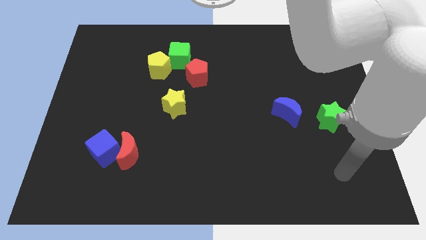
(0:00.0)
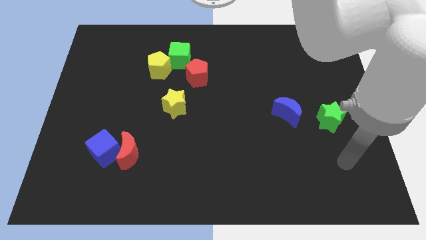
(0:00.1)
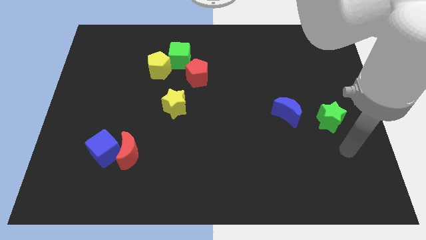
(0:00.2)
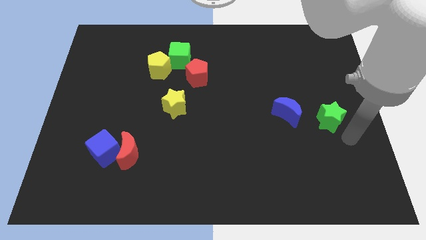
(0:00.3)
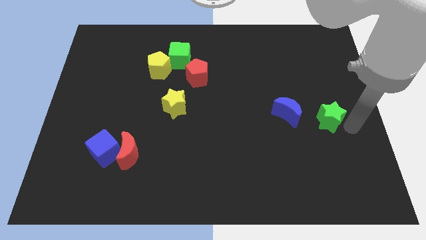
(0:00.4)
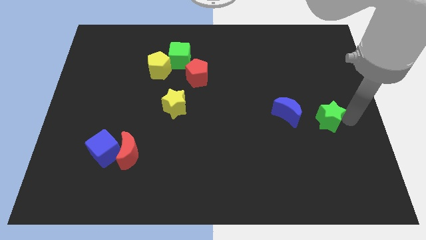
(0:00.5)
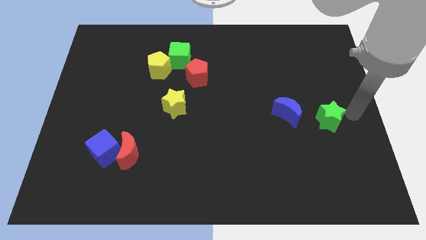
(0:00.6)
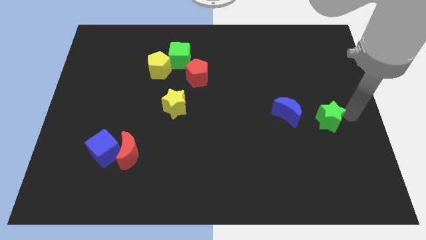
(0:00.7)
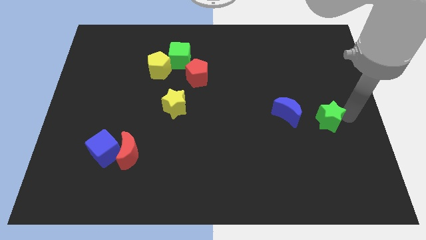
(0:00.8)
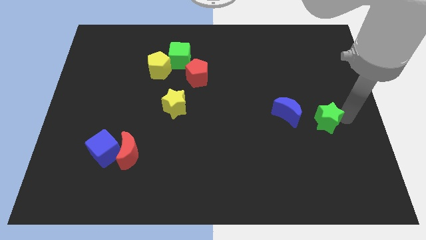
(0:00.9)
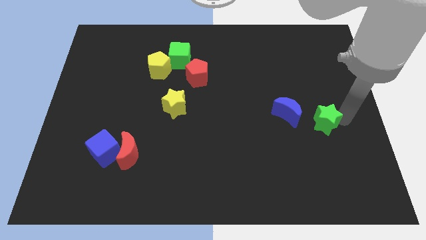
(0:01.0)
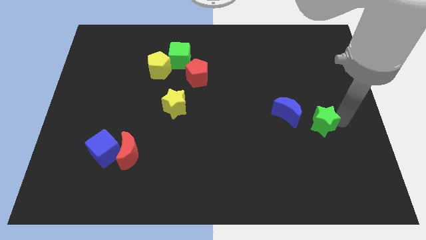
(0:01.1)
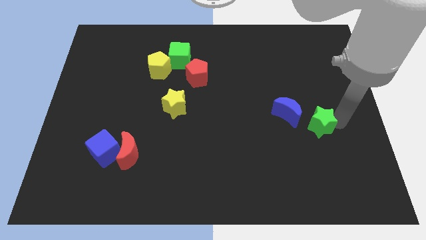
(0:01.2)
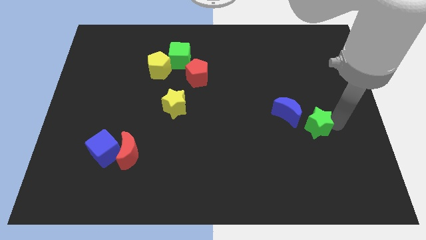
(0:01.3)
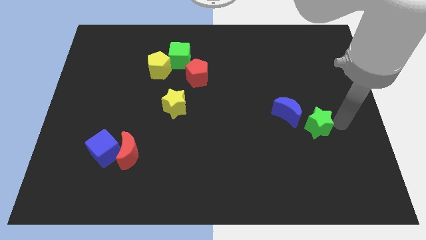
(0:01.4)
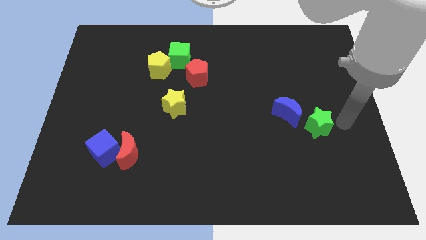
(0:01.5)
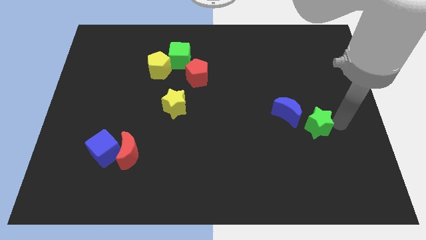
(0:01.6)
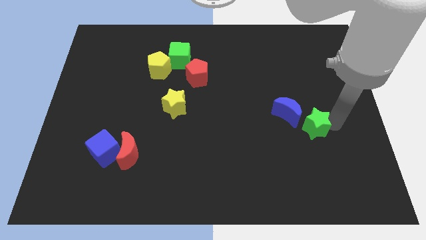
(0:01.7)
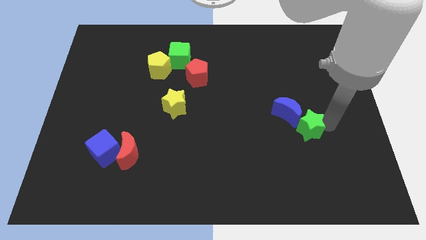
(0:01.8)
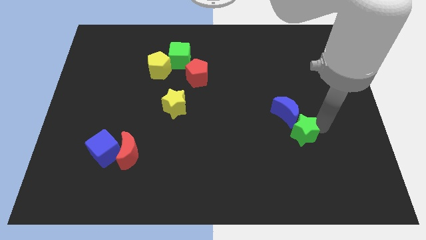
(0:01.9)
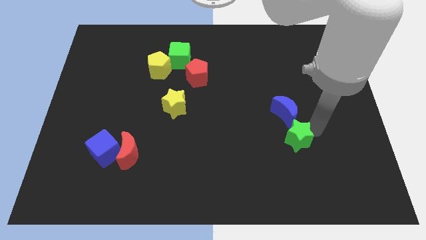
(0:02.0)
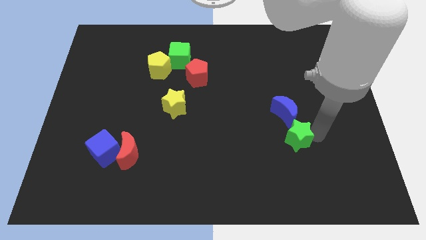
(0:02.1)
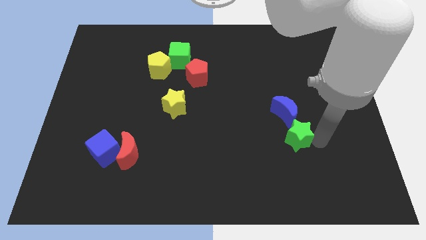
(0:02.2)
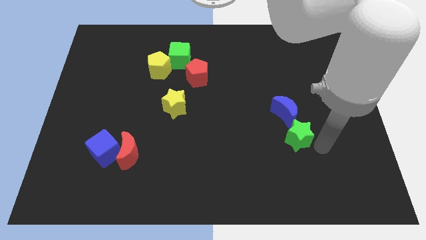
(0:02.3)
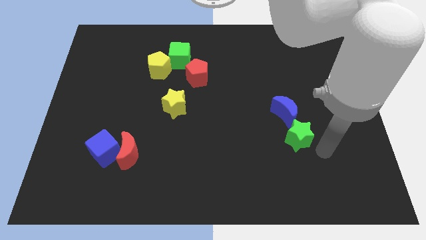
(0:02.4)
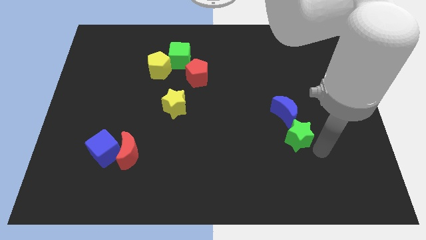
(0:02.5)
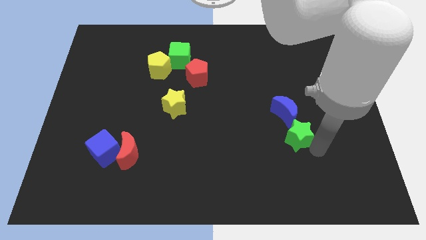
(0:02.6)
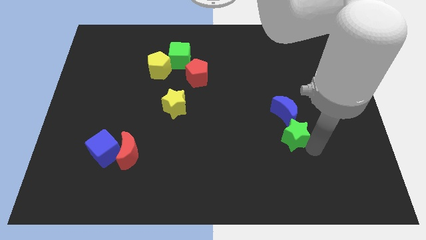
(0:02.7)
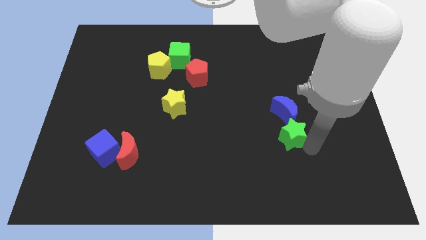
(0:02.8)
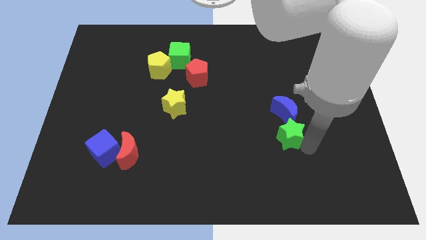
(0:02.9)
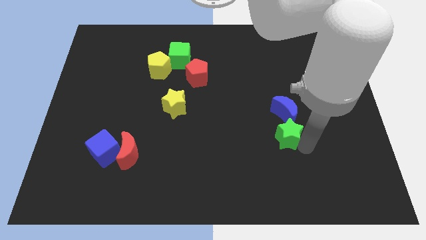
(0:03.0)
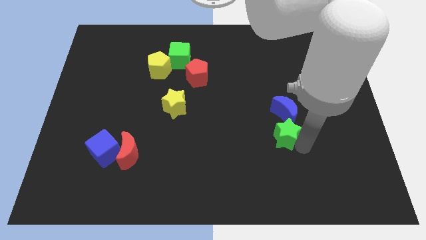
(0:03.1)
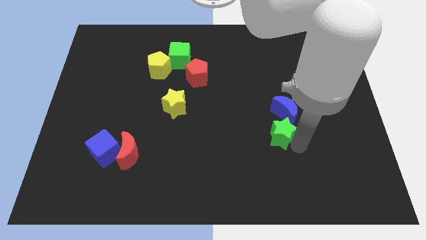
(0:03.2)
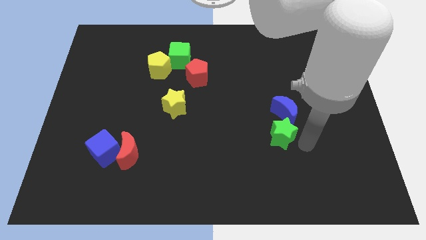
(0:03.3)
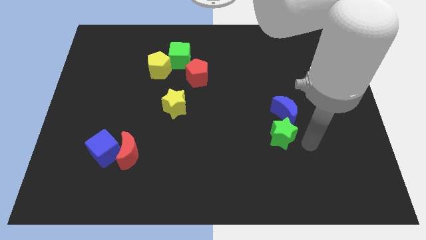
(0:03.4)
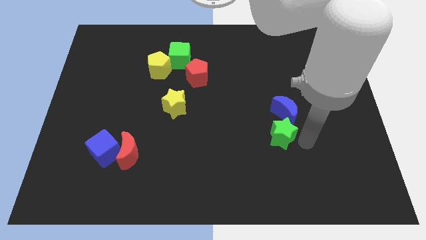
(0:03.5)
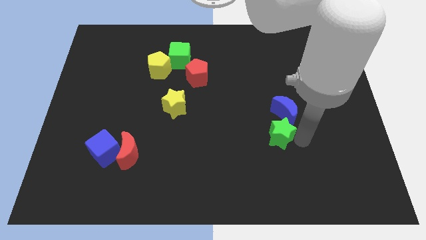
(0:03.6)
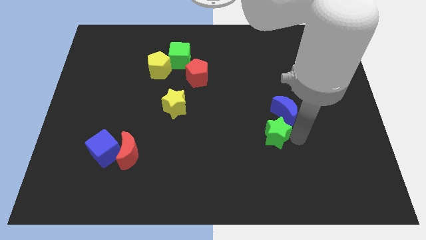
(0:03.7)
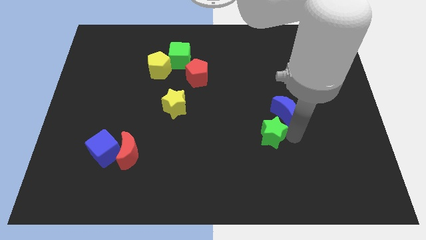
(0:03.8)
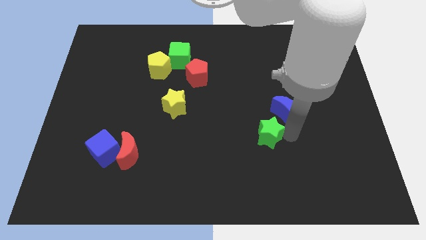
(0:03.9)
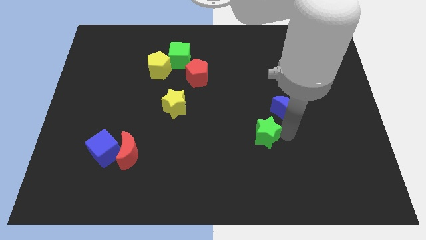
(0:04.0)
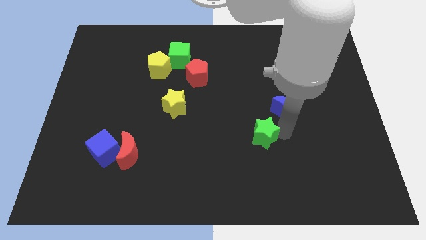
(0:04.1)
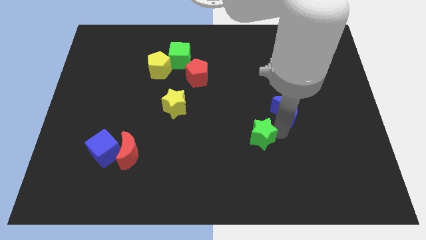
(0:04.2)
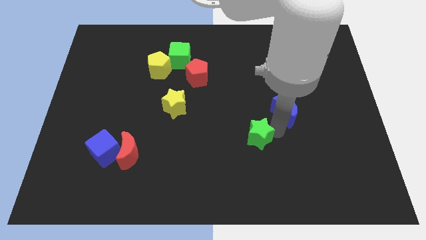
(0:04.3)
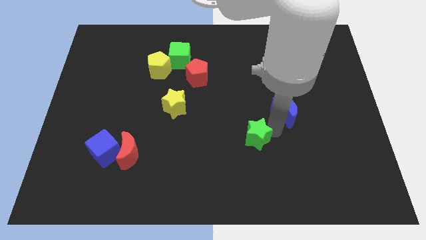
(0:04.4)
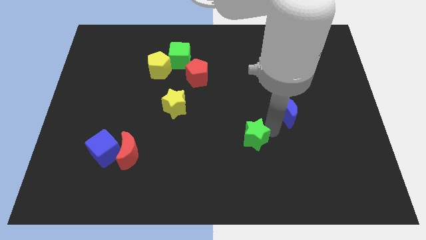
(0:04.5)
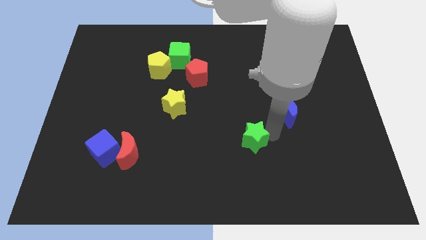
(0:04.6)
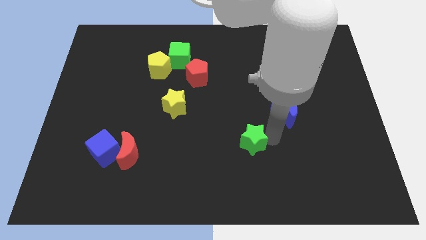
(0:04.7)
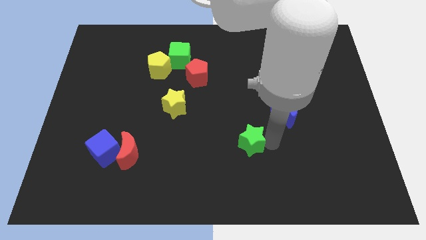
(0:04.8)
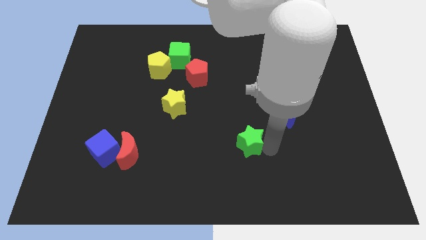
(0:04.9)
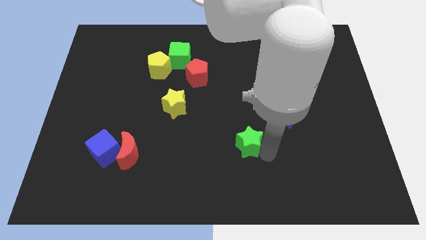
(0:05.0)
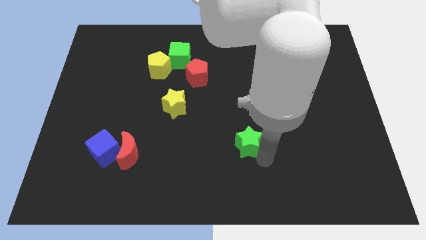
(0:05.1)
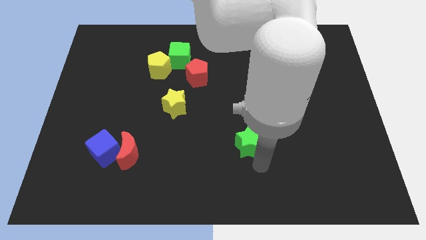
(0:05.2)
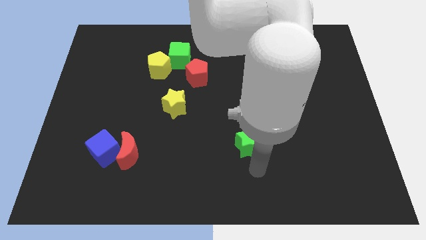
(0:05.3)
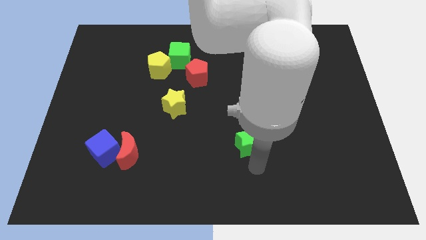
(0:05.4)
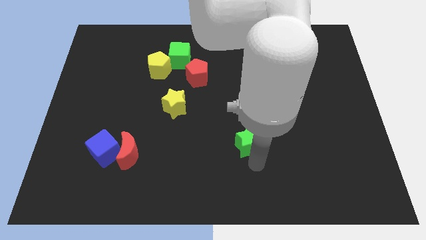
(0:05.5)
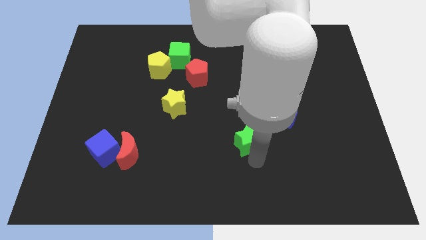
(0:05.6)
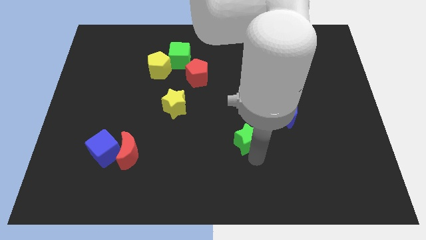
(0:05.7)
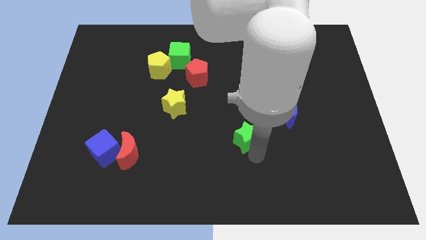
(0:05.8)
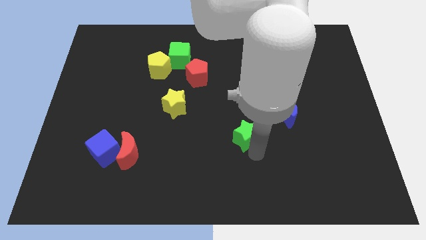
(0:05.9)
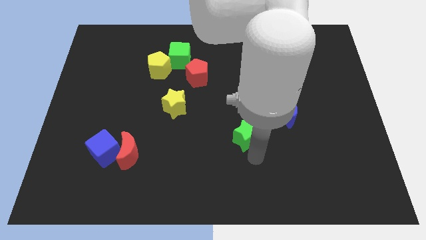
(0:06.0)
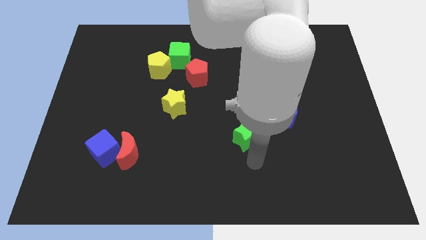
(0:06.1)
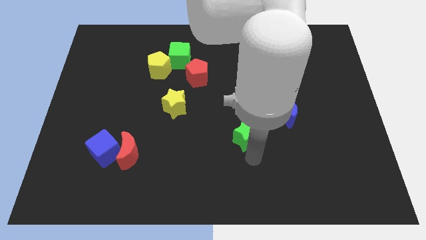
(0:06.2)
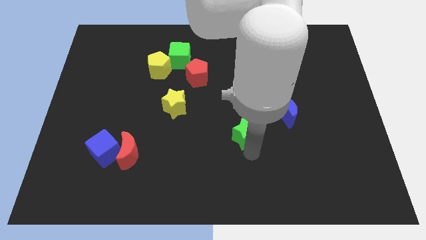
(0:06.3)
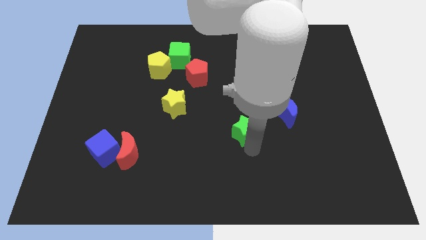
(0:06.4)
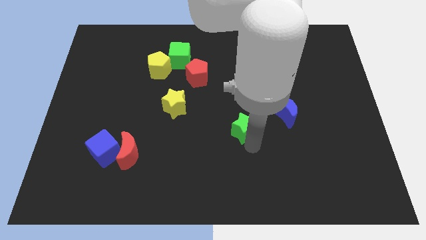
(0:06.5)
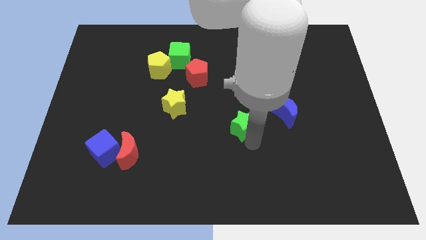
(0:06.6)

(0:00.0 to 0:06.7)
push the green star to the left

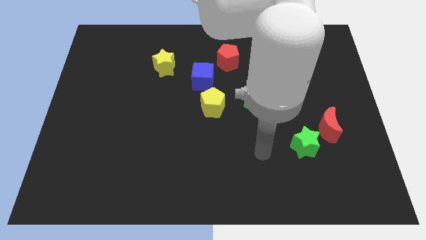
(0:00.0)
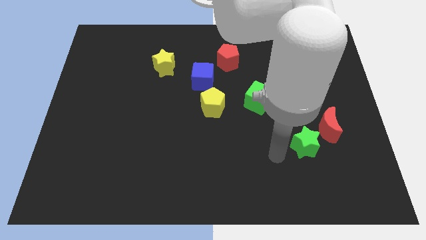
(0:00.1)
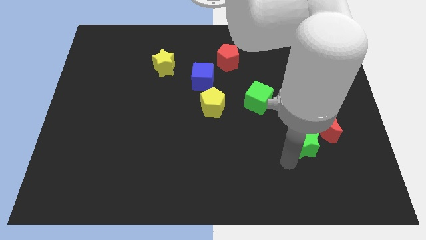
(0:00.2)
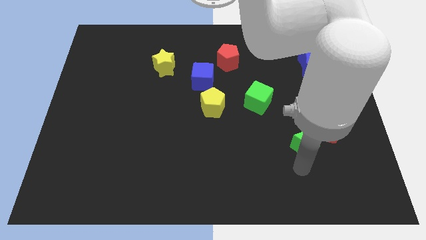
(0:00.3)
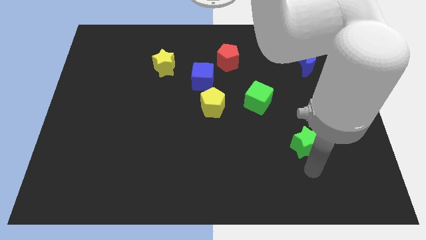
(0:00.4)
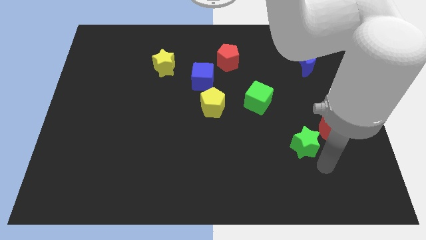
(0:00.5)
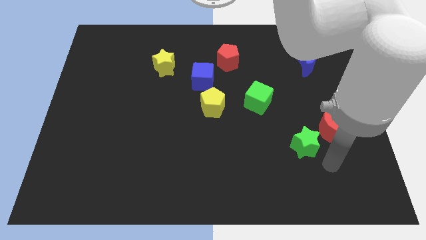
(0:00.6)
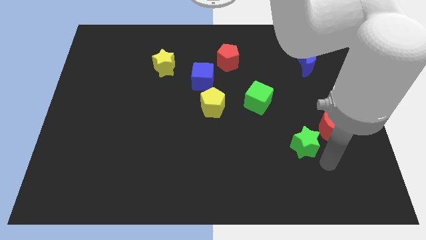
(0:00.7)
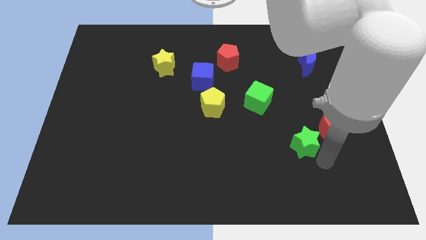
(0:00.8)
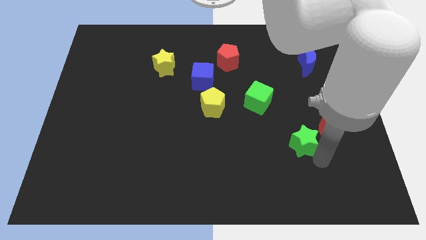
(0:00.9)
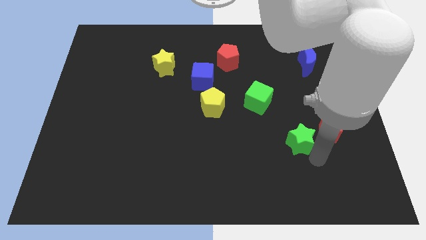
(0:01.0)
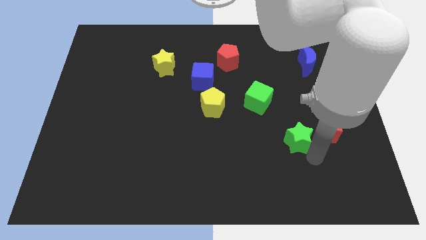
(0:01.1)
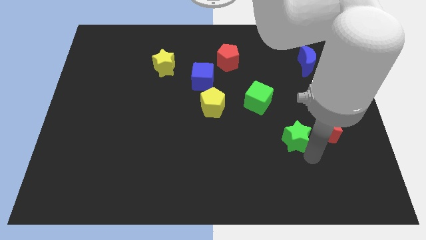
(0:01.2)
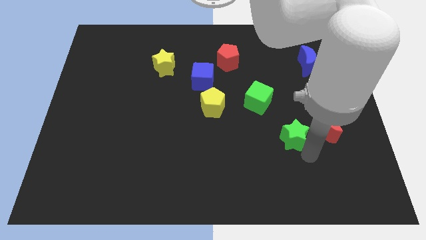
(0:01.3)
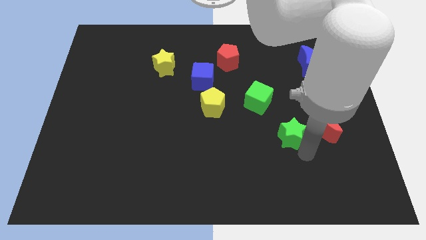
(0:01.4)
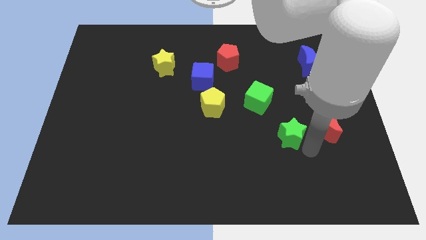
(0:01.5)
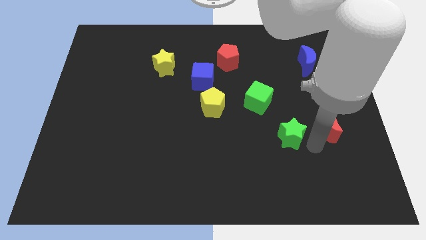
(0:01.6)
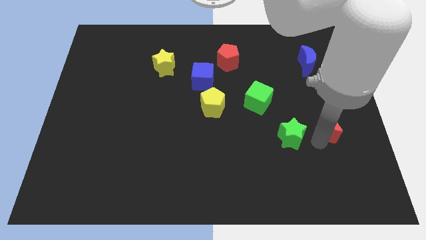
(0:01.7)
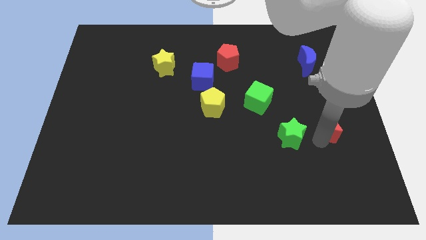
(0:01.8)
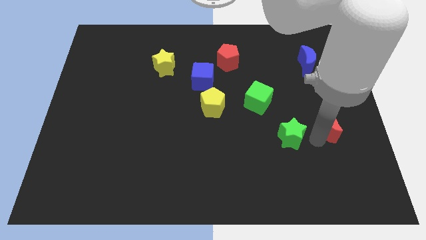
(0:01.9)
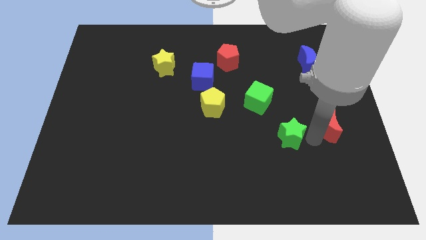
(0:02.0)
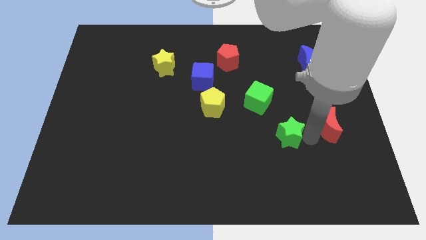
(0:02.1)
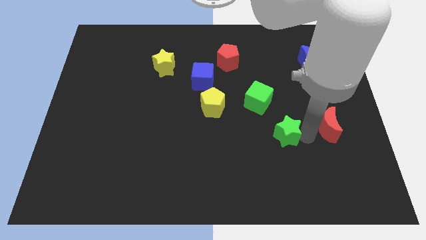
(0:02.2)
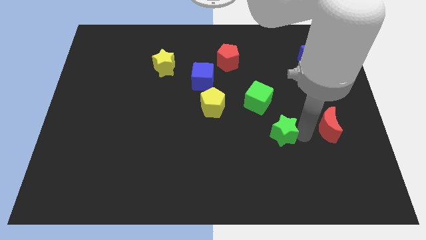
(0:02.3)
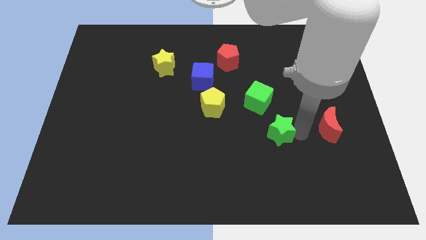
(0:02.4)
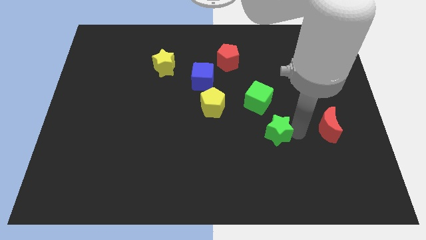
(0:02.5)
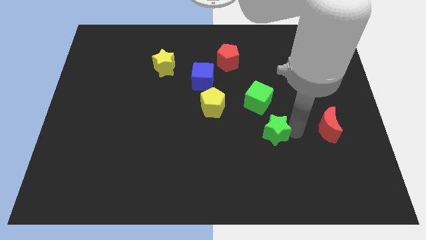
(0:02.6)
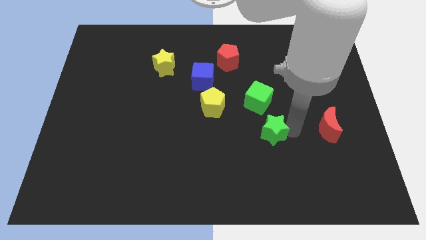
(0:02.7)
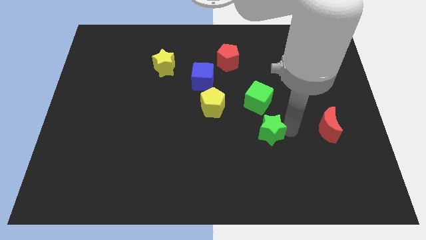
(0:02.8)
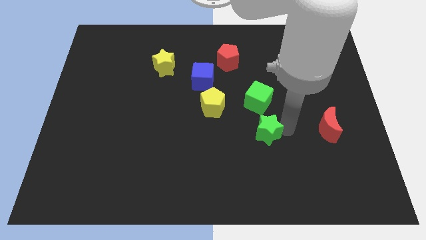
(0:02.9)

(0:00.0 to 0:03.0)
push the green star to the left a little bit
